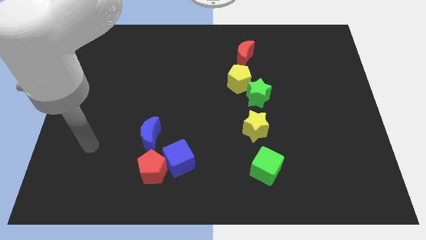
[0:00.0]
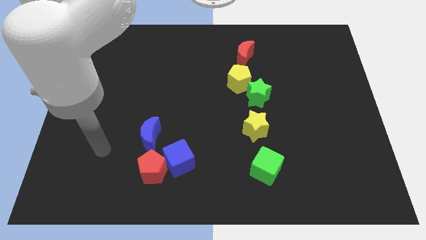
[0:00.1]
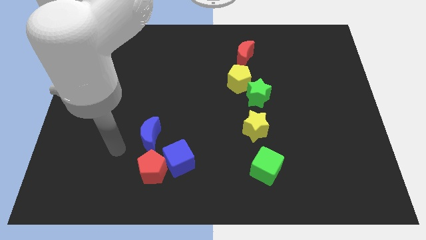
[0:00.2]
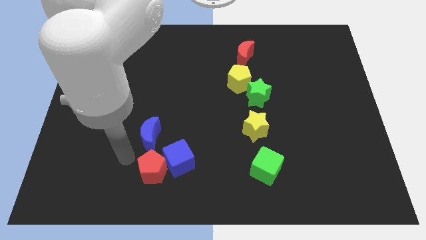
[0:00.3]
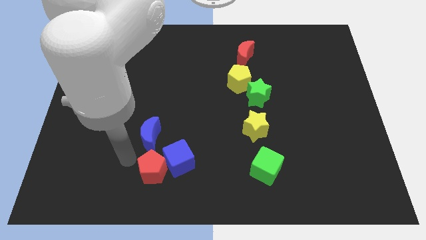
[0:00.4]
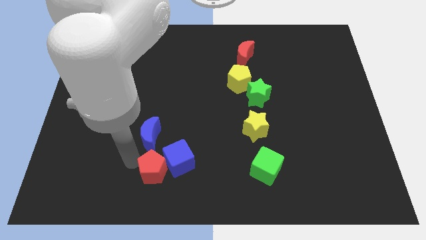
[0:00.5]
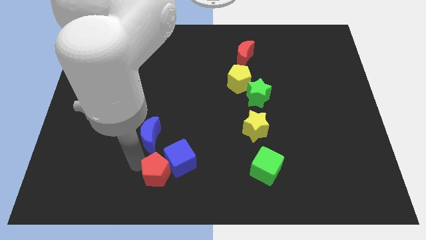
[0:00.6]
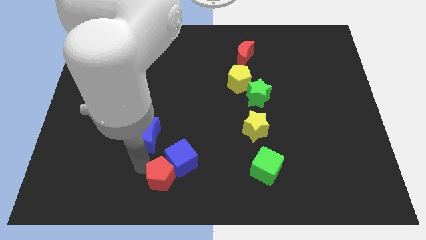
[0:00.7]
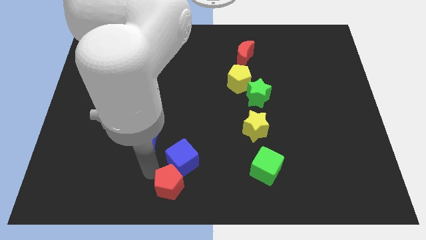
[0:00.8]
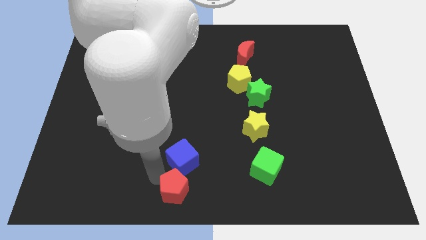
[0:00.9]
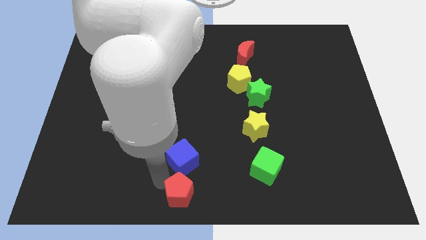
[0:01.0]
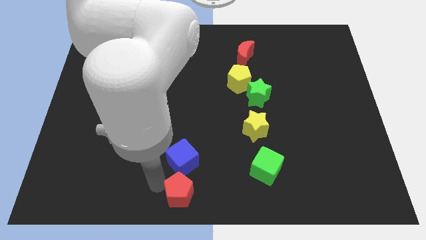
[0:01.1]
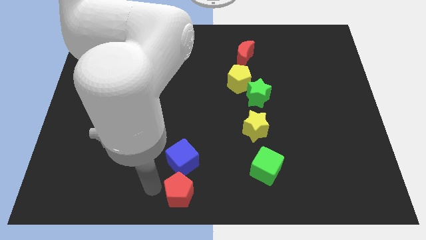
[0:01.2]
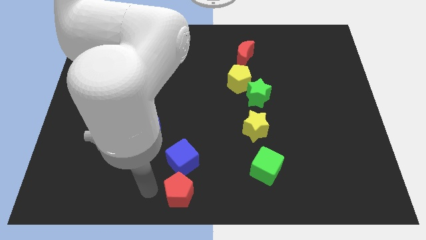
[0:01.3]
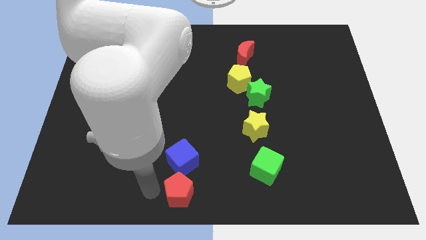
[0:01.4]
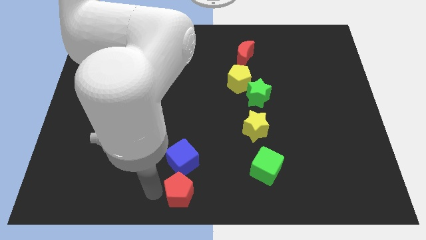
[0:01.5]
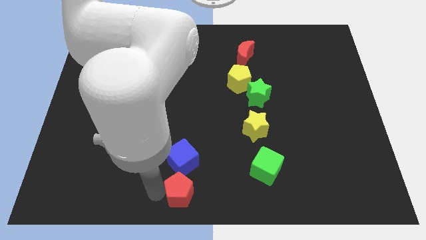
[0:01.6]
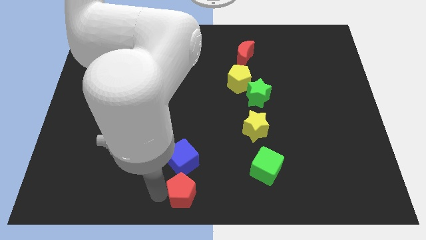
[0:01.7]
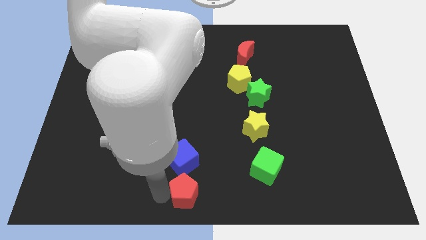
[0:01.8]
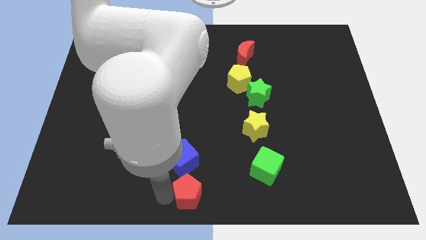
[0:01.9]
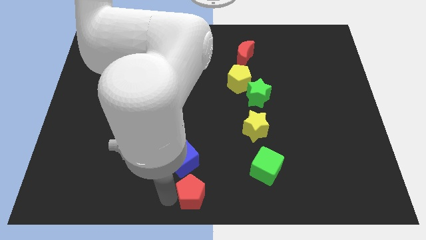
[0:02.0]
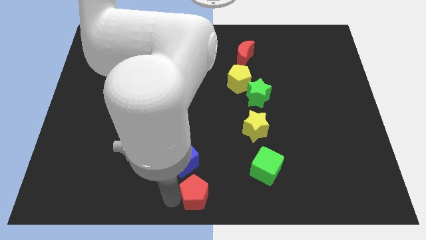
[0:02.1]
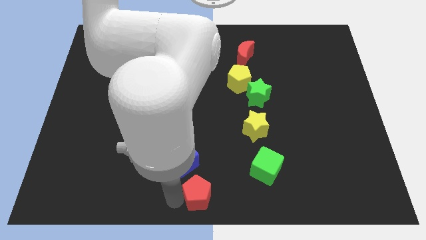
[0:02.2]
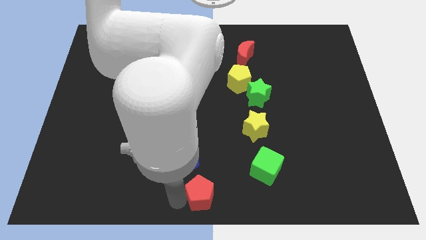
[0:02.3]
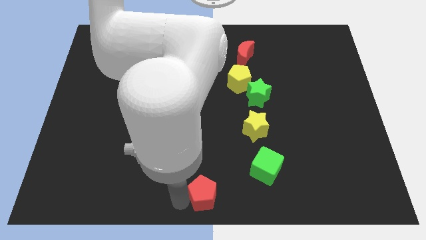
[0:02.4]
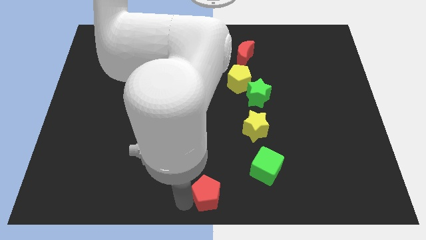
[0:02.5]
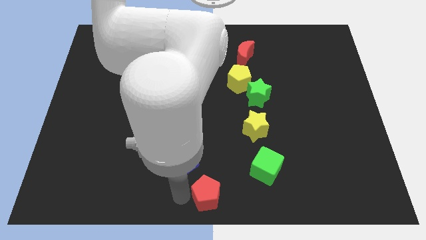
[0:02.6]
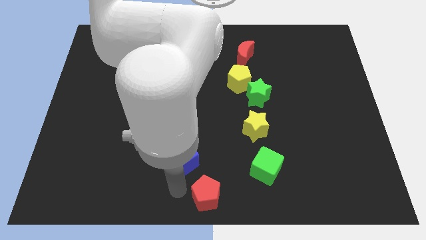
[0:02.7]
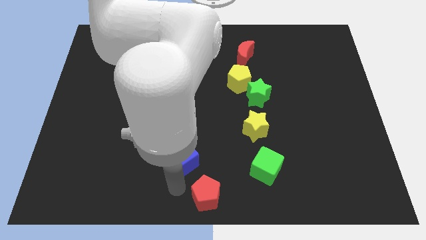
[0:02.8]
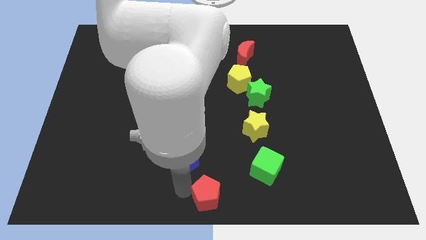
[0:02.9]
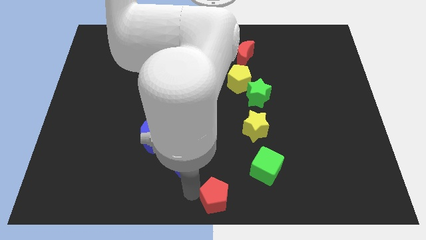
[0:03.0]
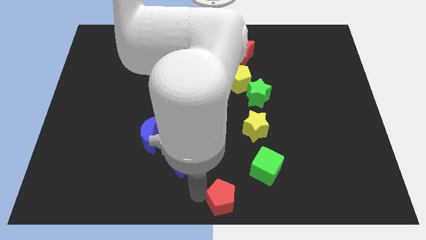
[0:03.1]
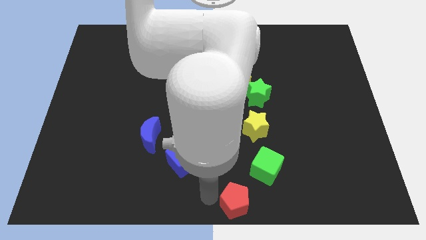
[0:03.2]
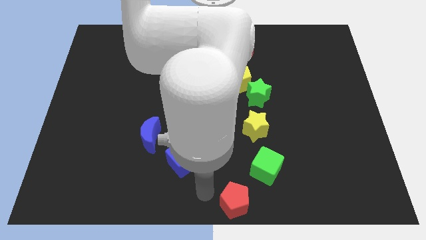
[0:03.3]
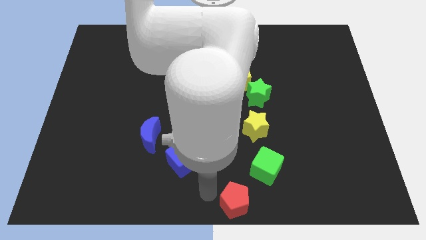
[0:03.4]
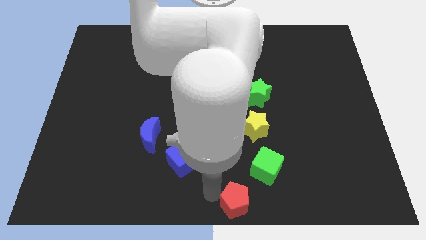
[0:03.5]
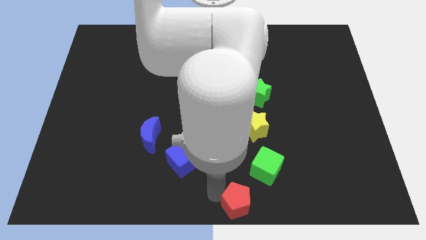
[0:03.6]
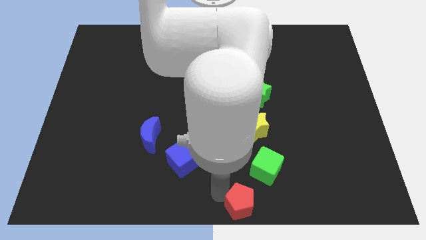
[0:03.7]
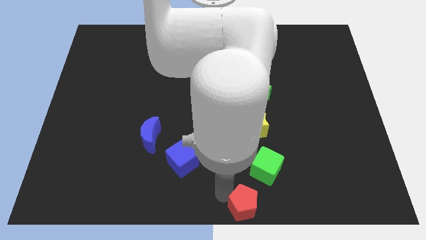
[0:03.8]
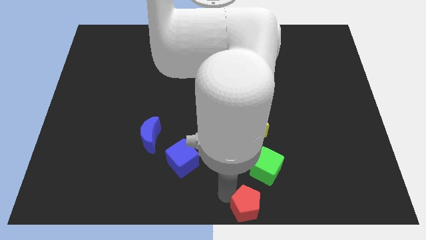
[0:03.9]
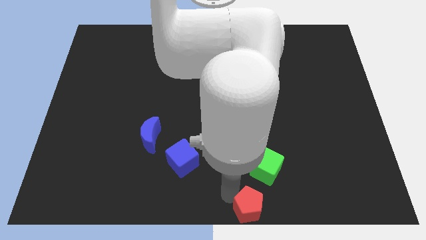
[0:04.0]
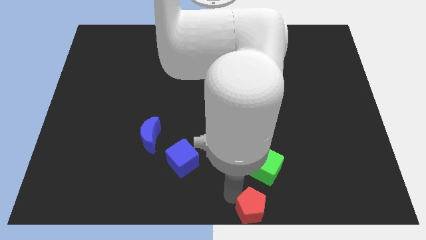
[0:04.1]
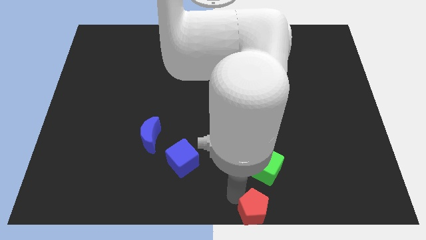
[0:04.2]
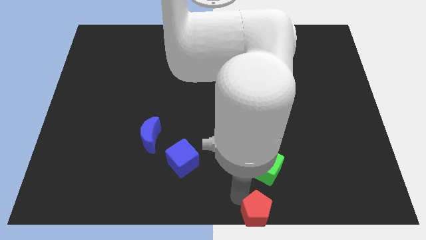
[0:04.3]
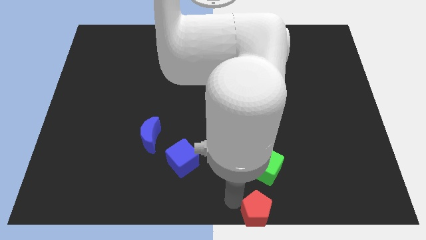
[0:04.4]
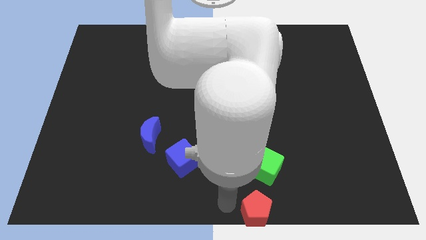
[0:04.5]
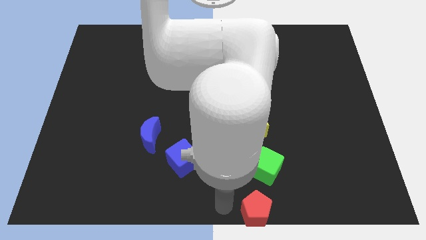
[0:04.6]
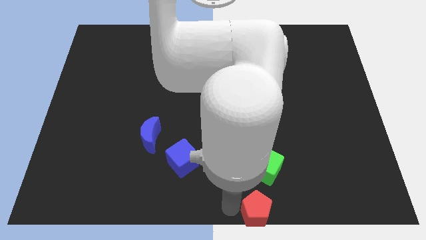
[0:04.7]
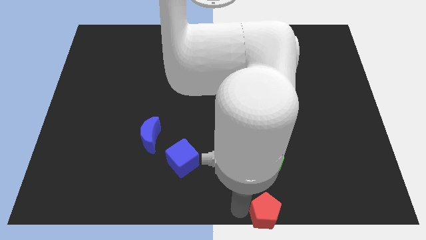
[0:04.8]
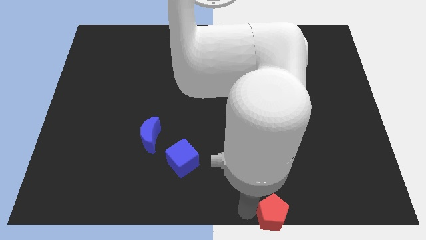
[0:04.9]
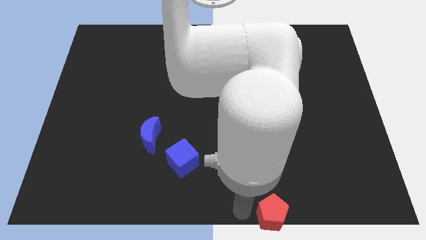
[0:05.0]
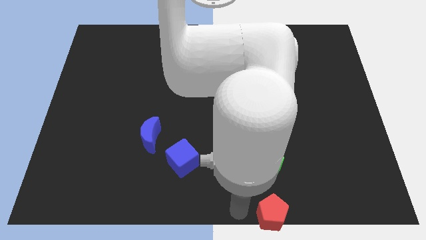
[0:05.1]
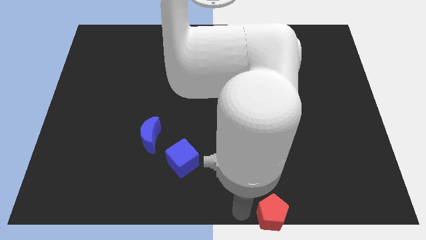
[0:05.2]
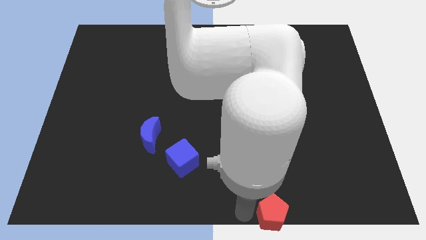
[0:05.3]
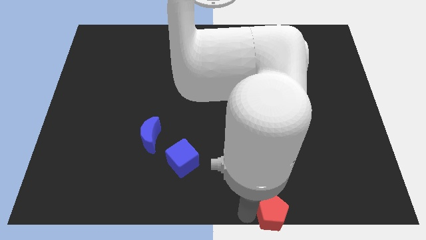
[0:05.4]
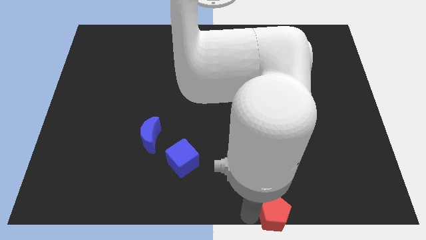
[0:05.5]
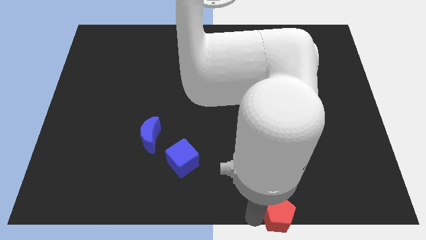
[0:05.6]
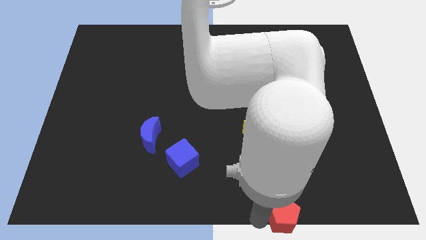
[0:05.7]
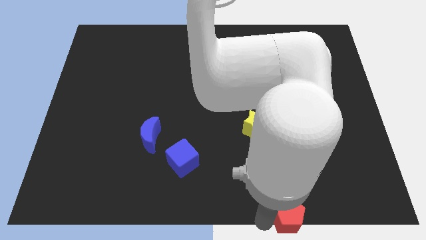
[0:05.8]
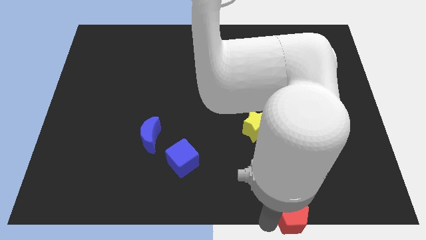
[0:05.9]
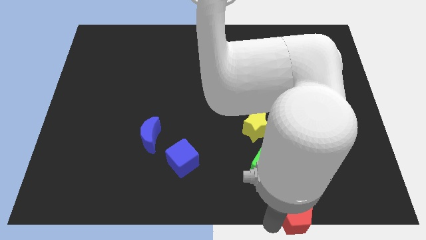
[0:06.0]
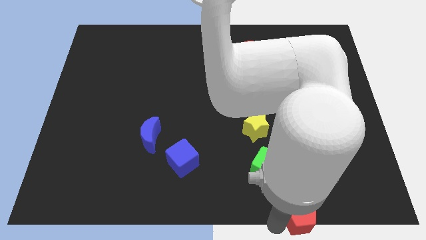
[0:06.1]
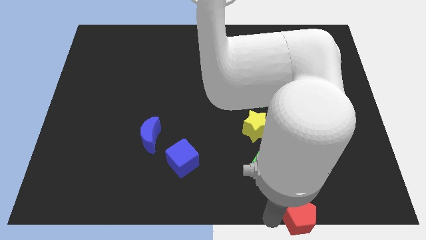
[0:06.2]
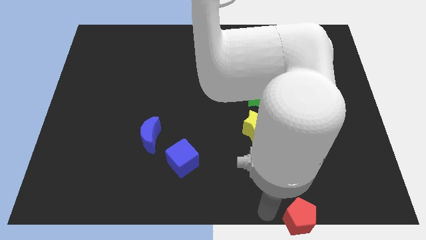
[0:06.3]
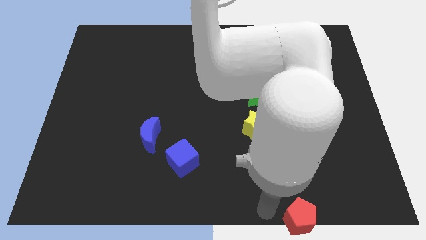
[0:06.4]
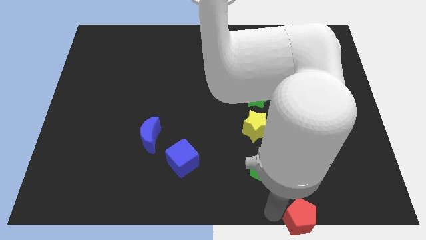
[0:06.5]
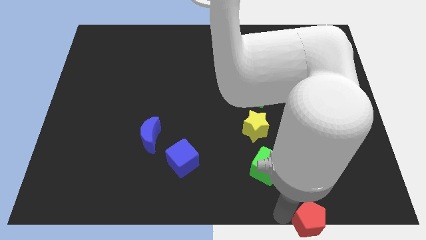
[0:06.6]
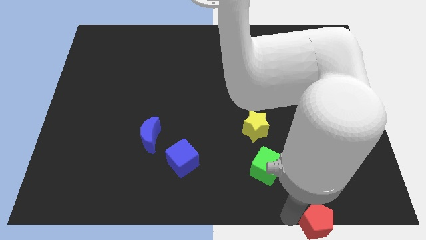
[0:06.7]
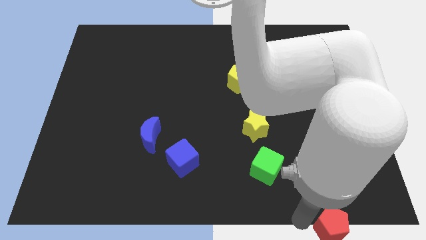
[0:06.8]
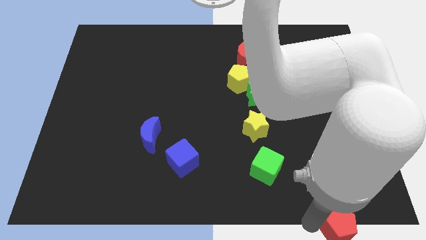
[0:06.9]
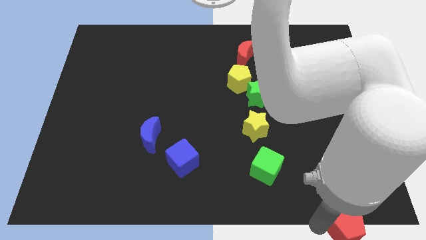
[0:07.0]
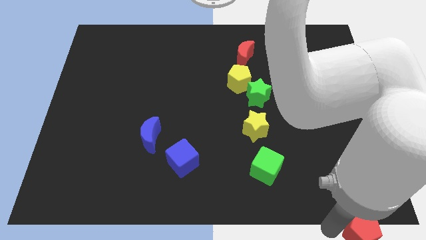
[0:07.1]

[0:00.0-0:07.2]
move the red pentagon to the lower right corner
